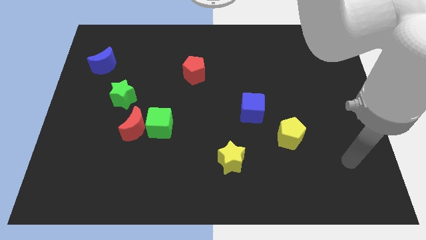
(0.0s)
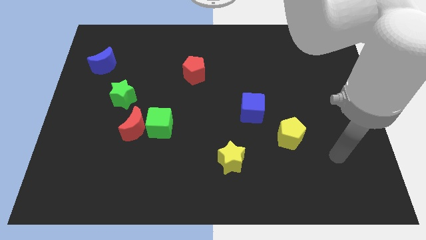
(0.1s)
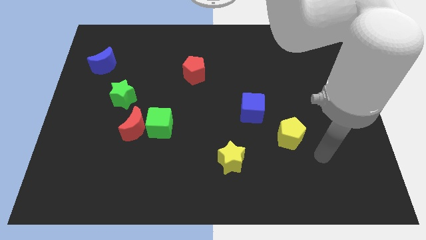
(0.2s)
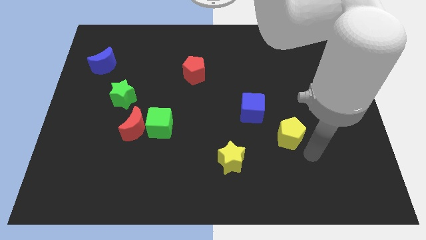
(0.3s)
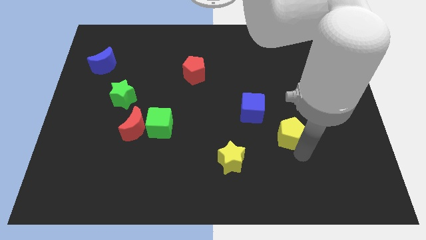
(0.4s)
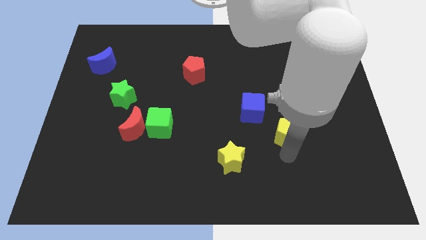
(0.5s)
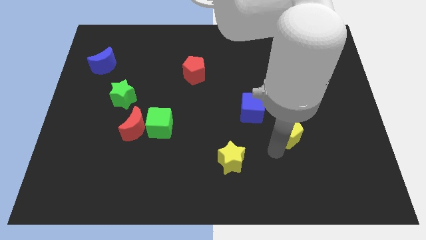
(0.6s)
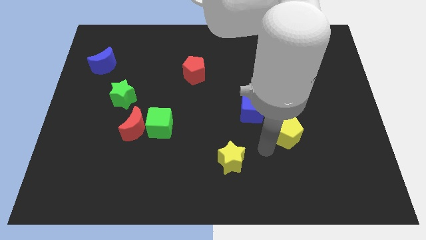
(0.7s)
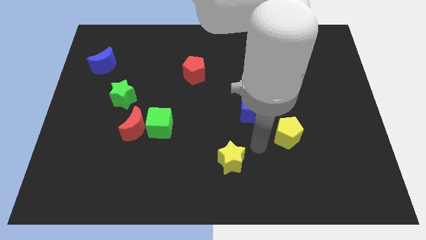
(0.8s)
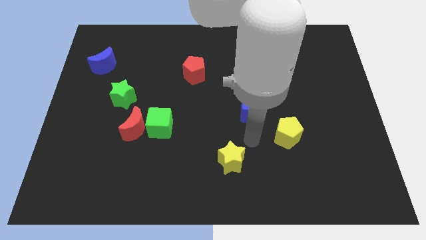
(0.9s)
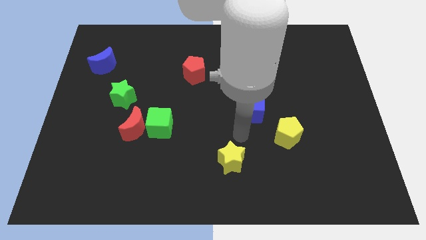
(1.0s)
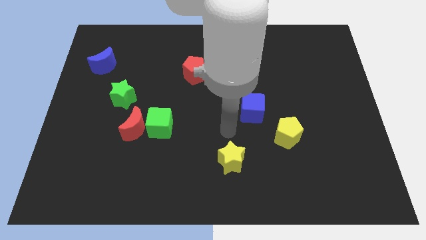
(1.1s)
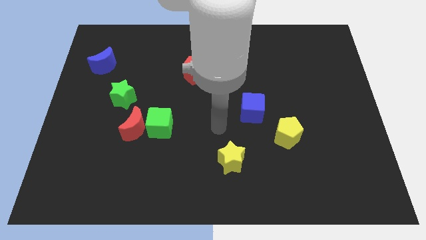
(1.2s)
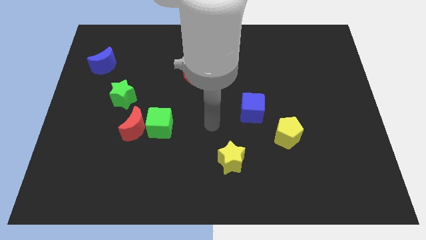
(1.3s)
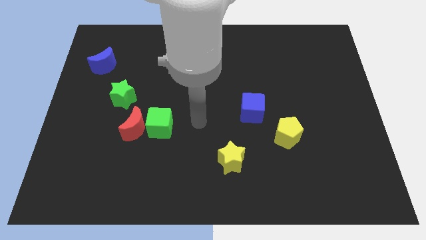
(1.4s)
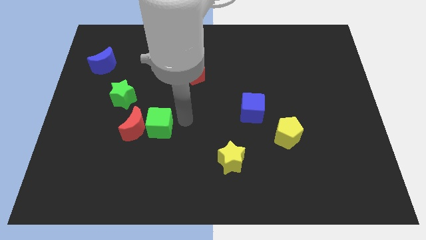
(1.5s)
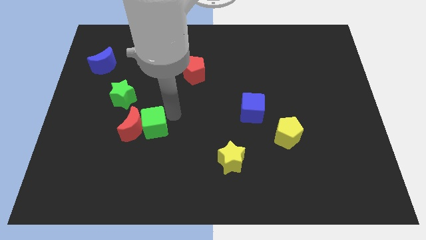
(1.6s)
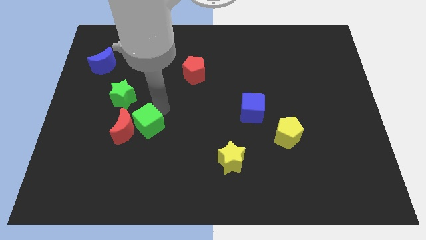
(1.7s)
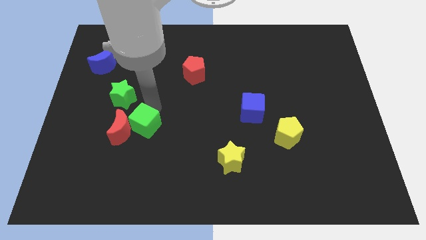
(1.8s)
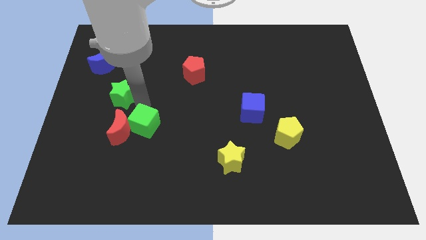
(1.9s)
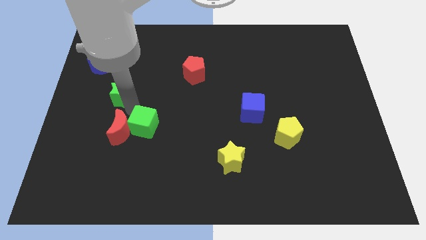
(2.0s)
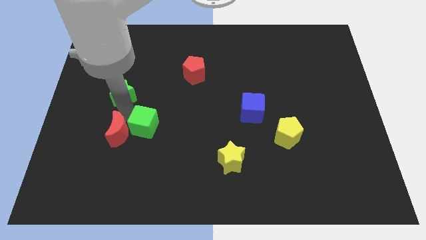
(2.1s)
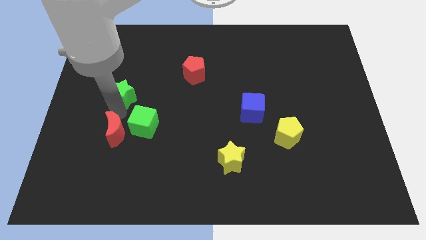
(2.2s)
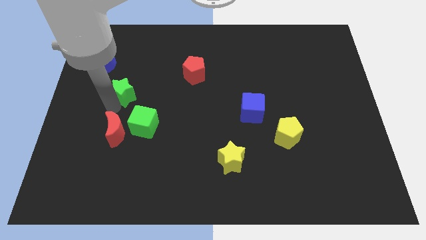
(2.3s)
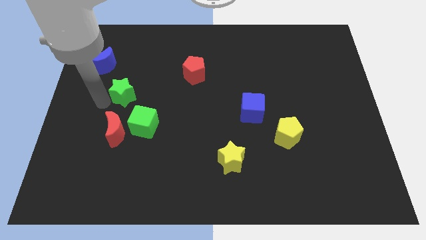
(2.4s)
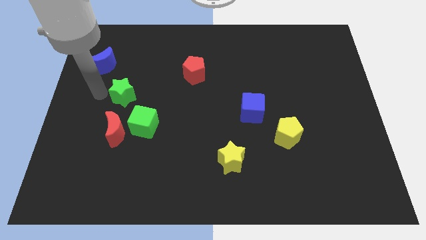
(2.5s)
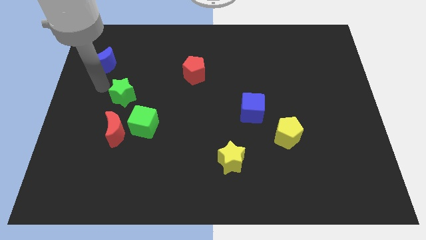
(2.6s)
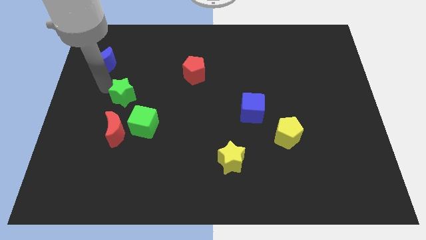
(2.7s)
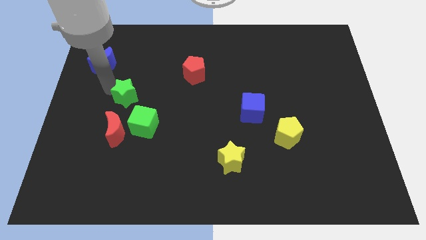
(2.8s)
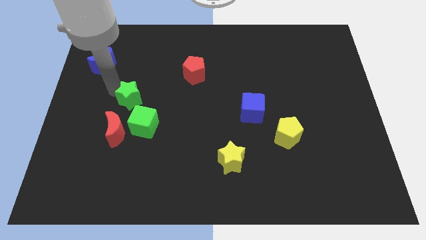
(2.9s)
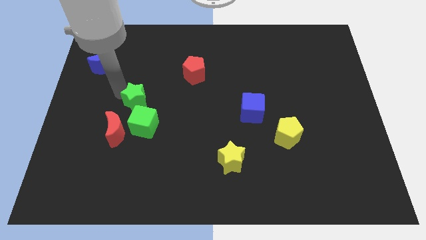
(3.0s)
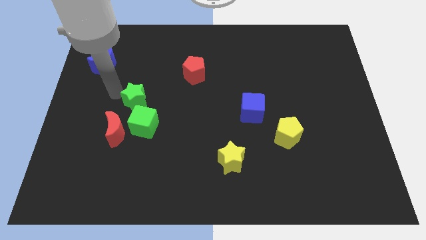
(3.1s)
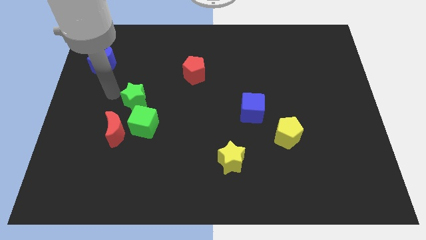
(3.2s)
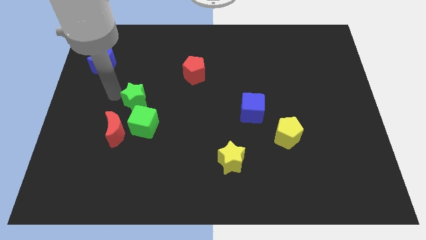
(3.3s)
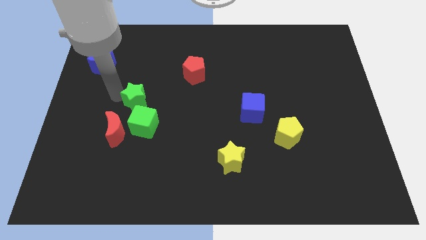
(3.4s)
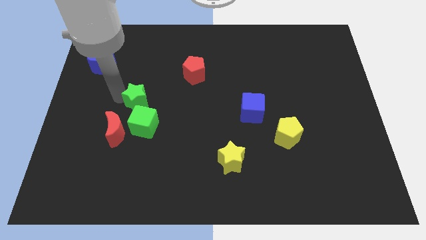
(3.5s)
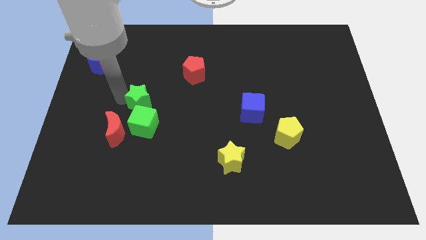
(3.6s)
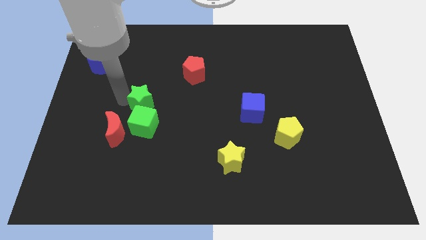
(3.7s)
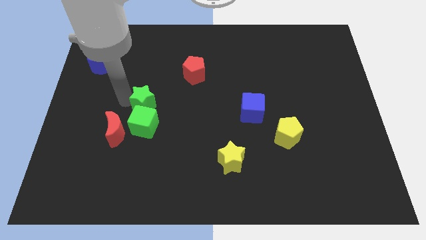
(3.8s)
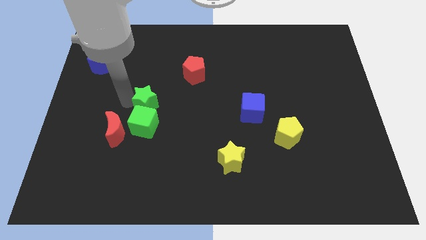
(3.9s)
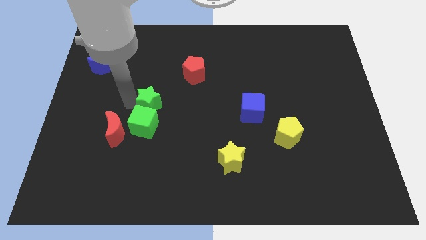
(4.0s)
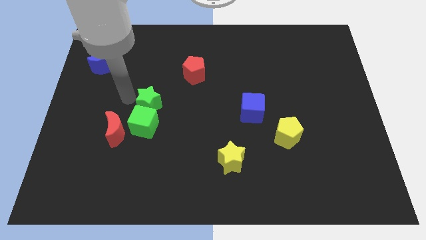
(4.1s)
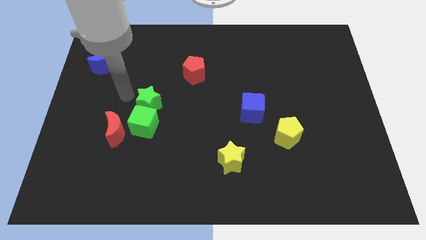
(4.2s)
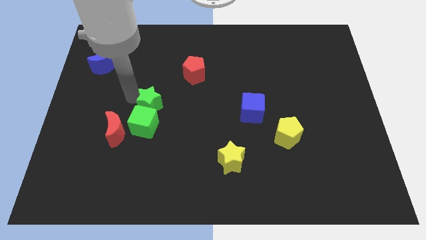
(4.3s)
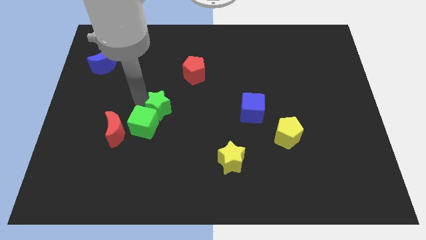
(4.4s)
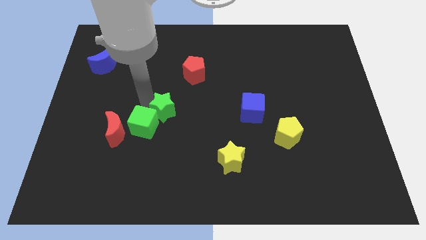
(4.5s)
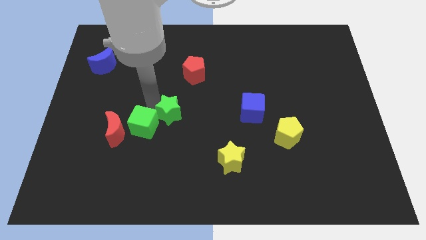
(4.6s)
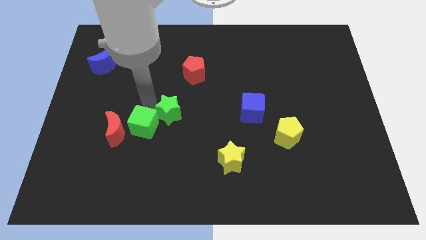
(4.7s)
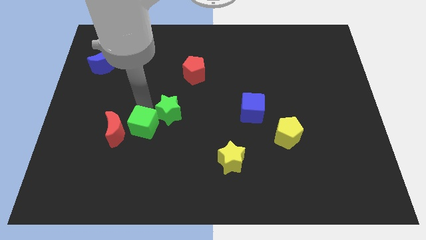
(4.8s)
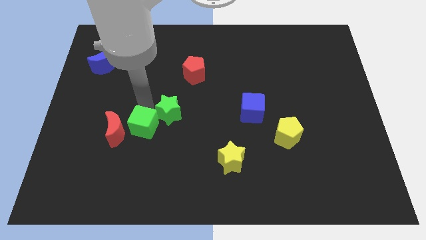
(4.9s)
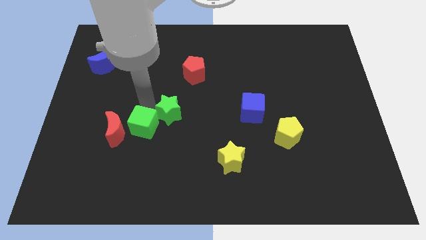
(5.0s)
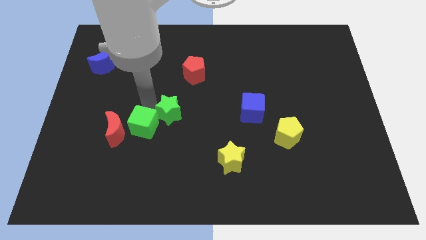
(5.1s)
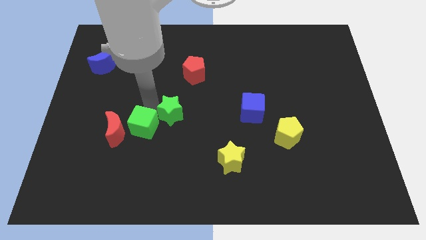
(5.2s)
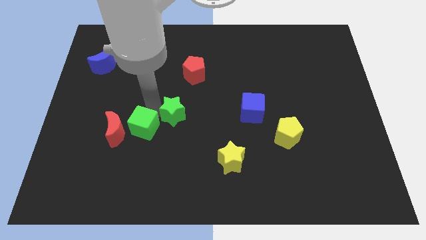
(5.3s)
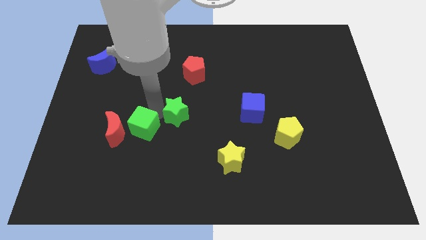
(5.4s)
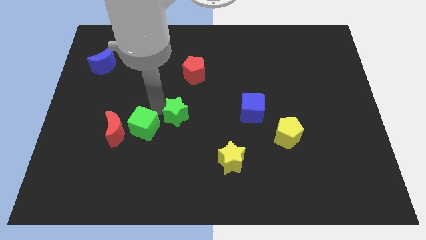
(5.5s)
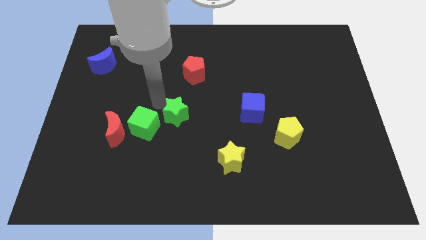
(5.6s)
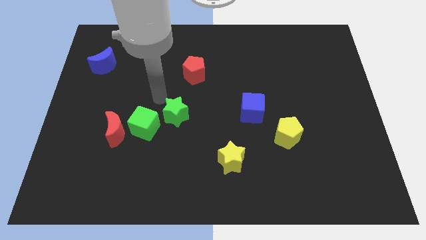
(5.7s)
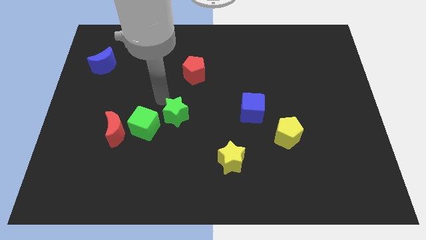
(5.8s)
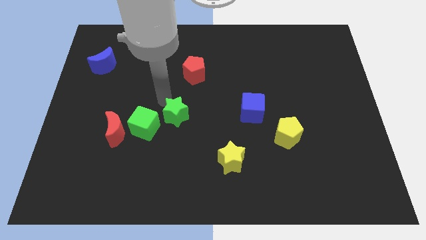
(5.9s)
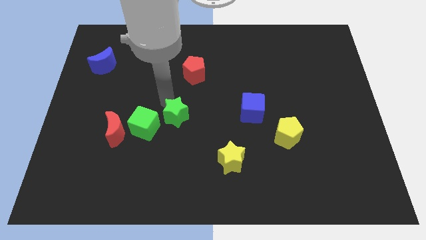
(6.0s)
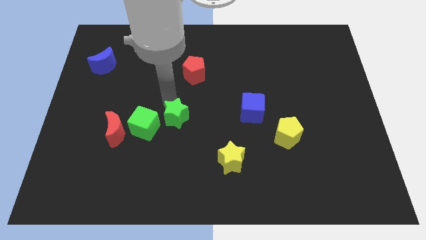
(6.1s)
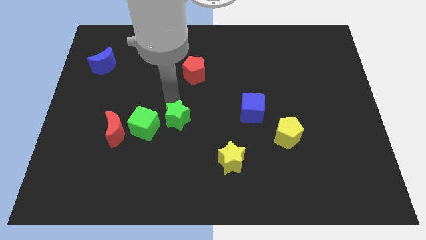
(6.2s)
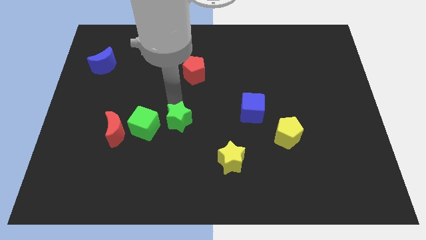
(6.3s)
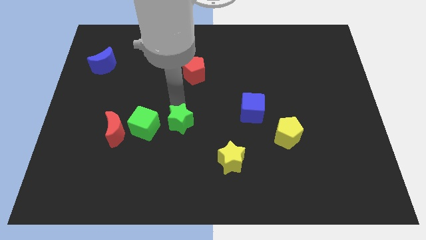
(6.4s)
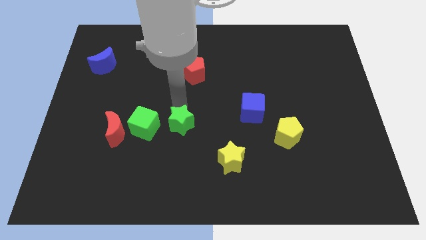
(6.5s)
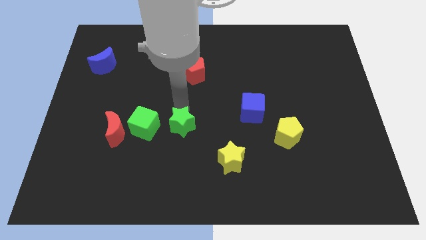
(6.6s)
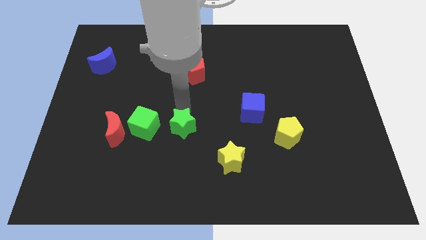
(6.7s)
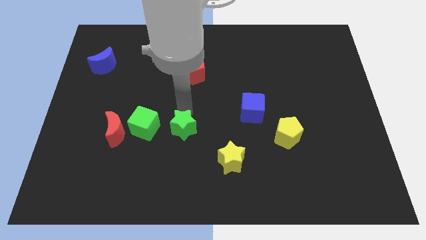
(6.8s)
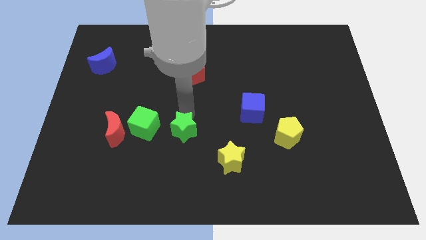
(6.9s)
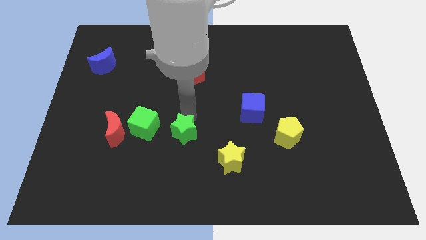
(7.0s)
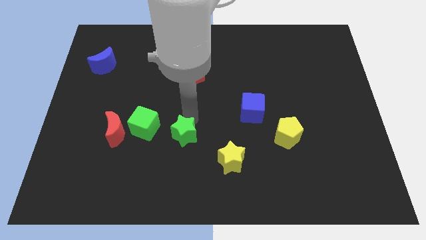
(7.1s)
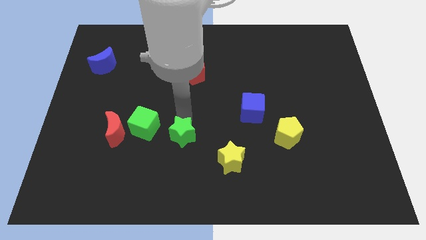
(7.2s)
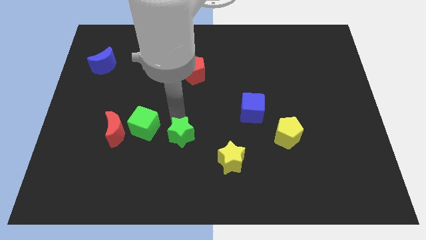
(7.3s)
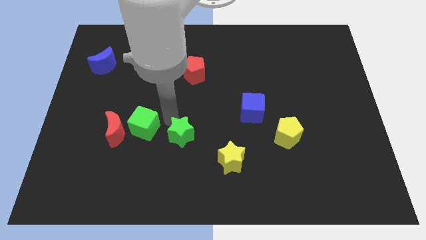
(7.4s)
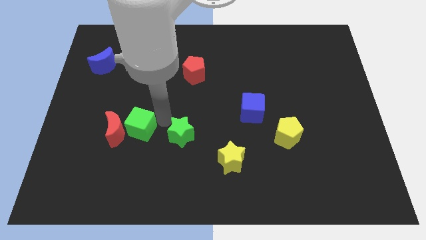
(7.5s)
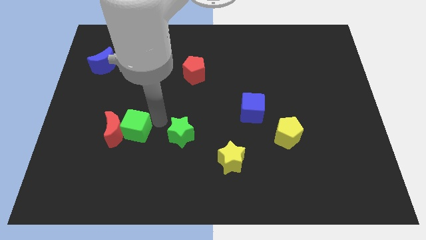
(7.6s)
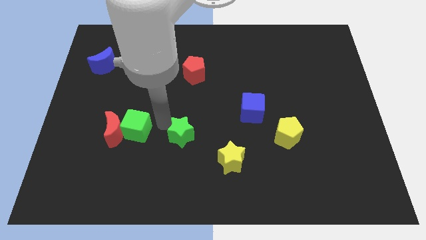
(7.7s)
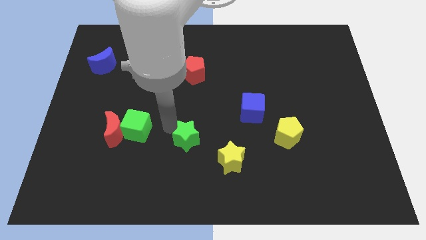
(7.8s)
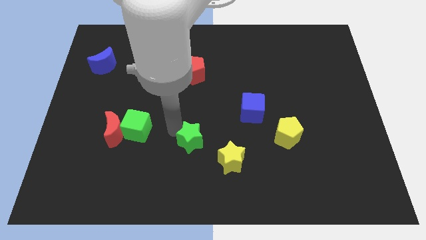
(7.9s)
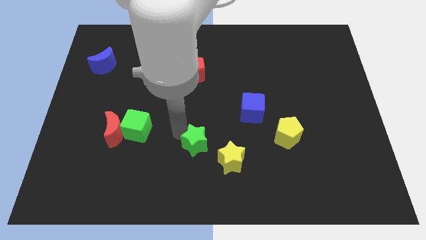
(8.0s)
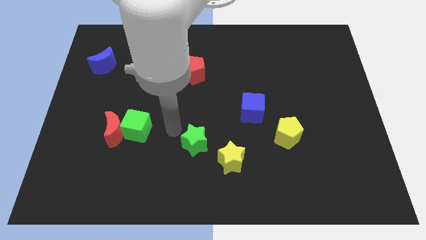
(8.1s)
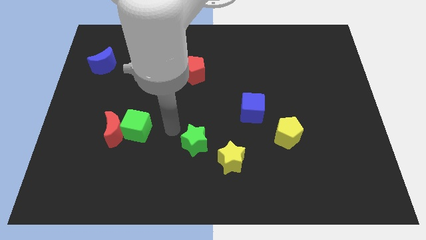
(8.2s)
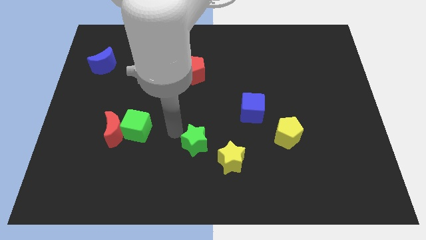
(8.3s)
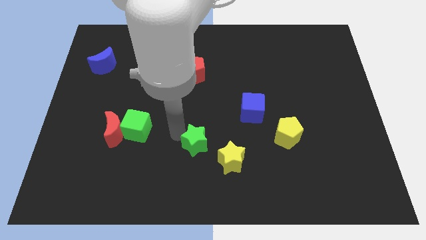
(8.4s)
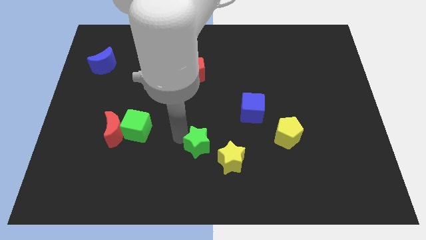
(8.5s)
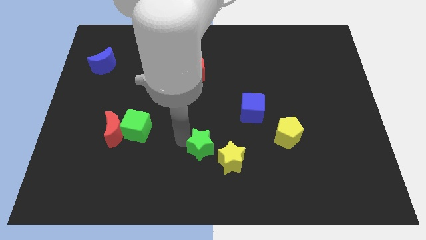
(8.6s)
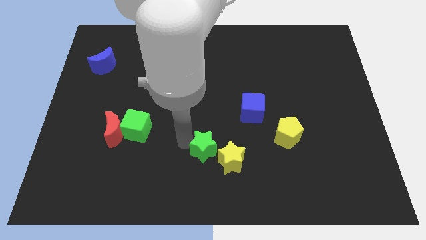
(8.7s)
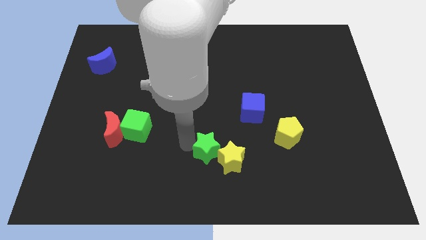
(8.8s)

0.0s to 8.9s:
put the green star to the yellow star
